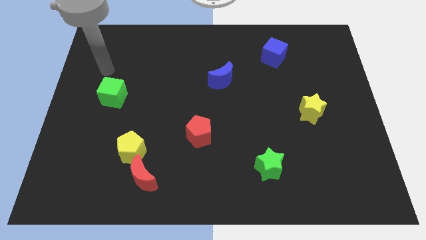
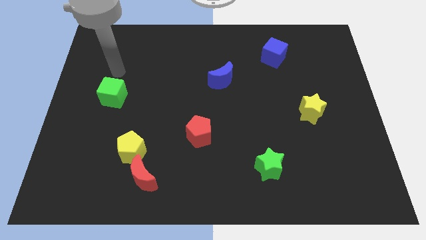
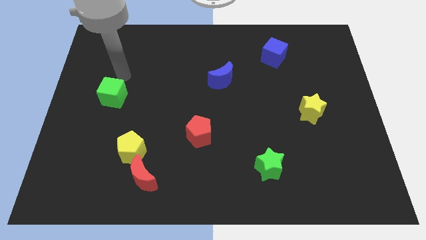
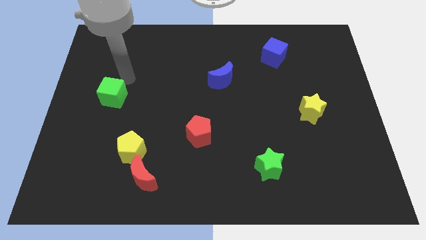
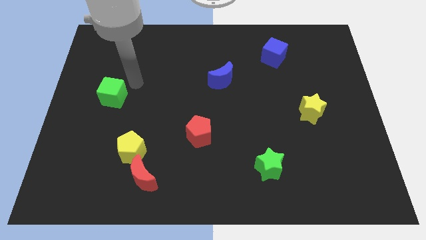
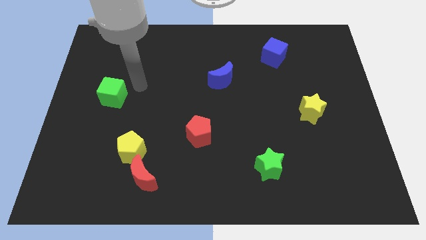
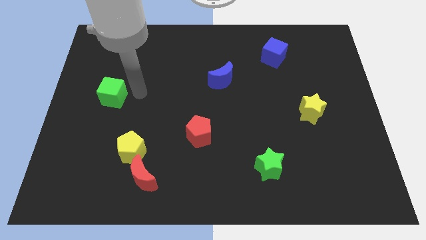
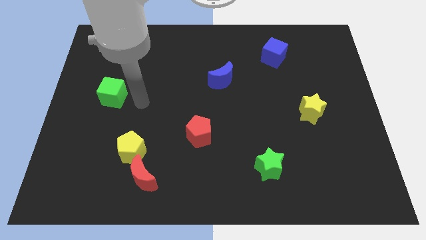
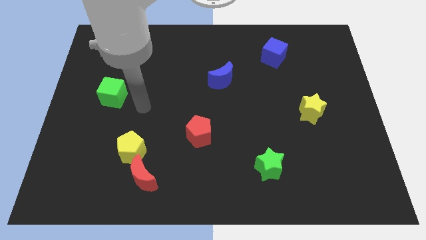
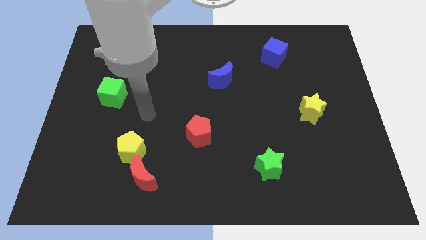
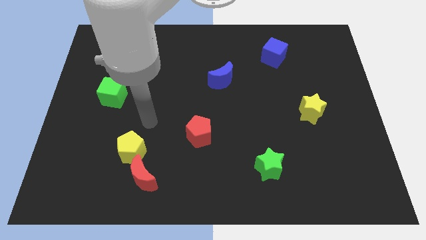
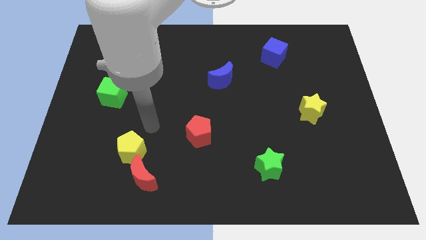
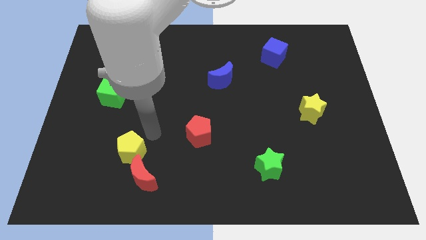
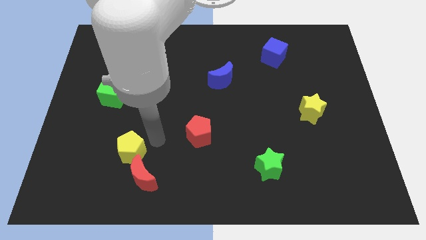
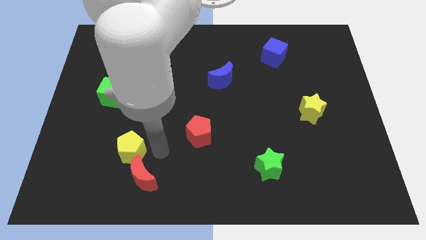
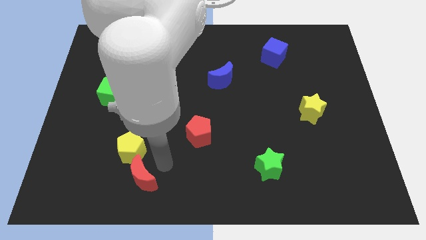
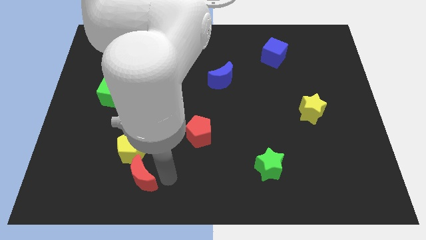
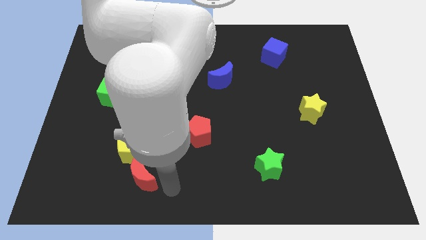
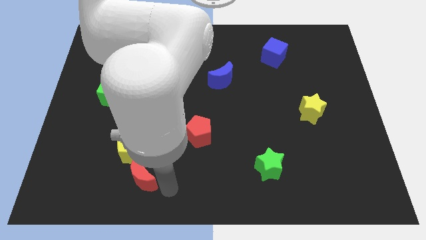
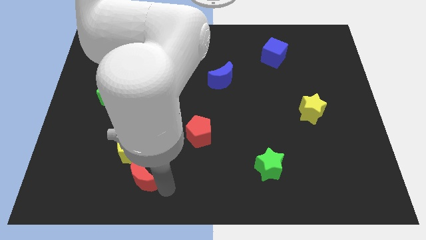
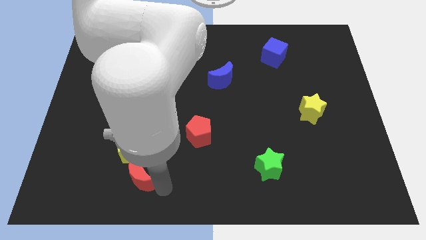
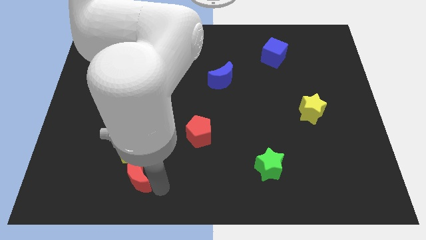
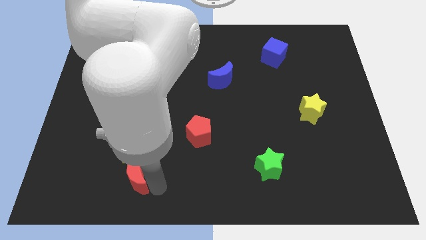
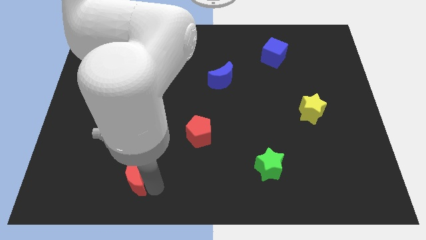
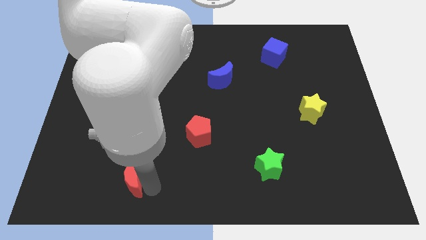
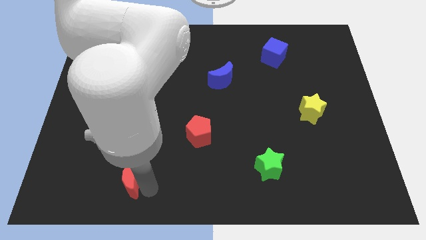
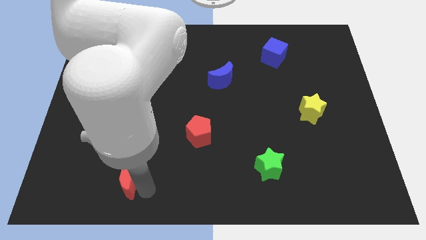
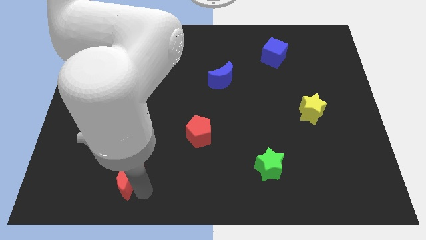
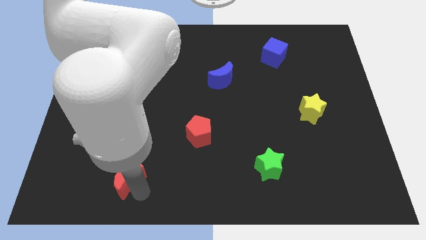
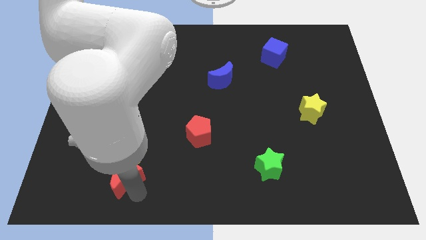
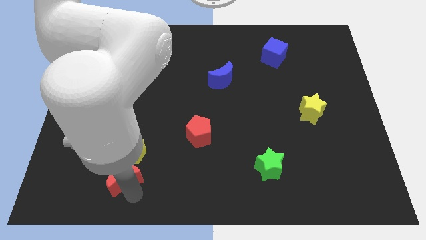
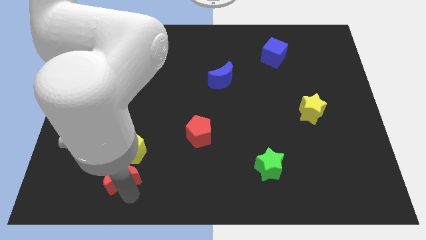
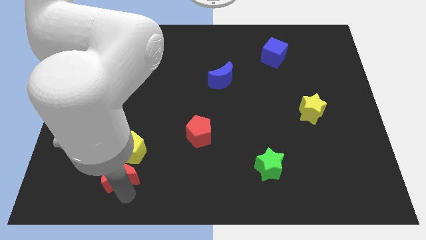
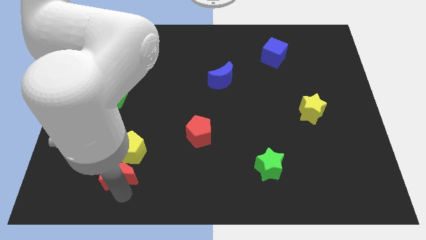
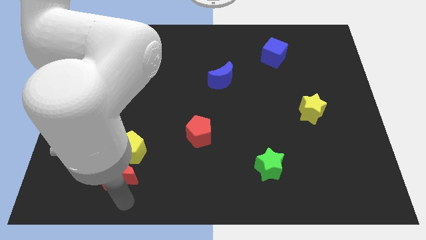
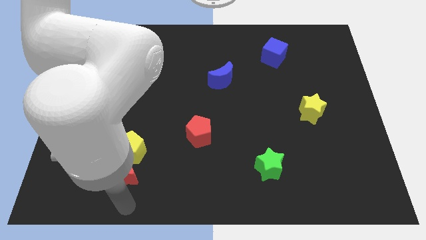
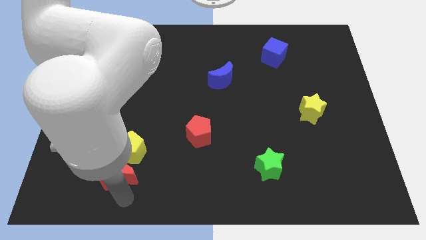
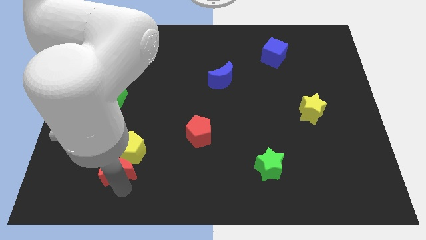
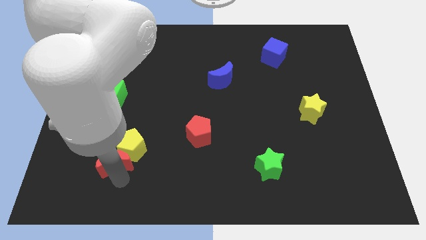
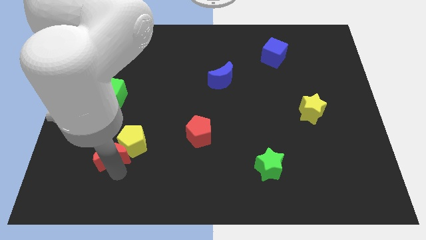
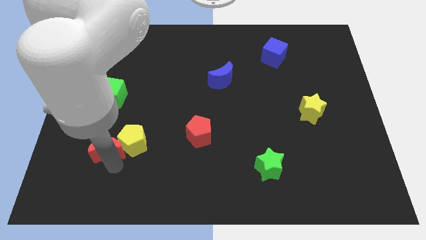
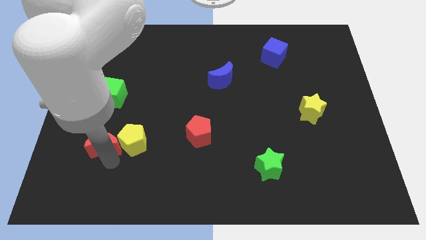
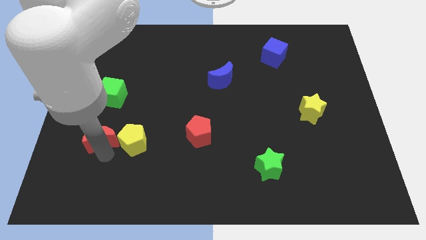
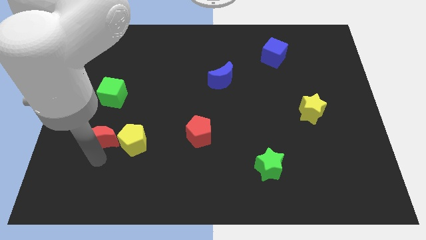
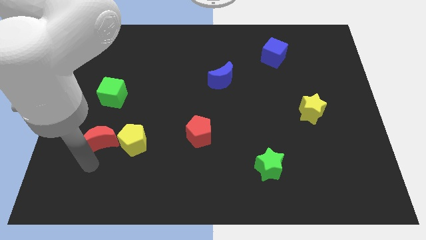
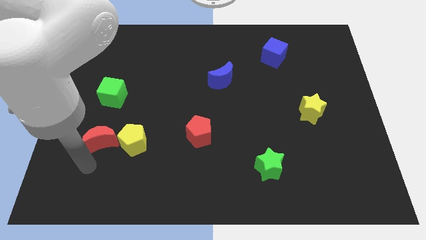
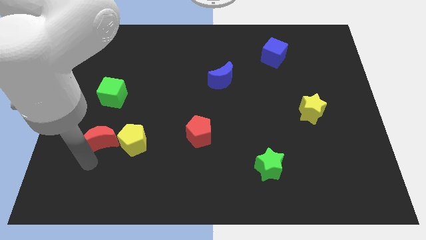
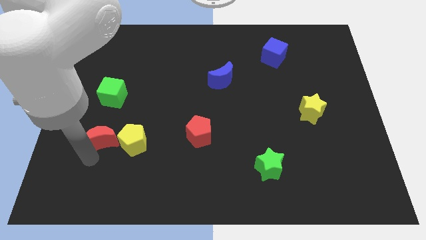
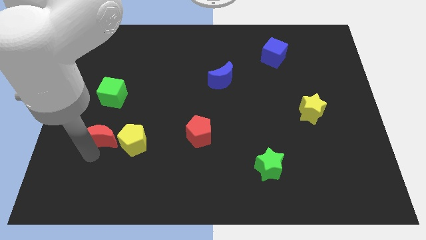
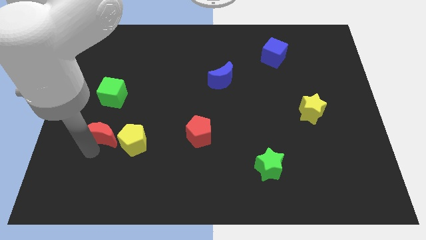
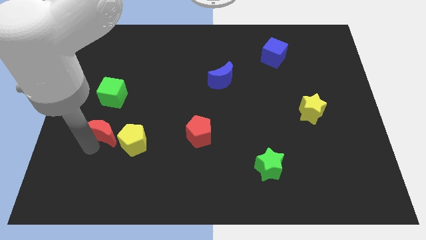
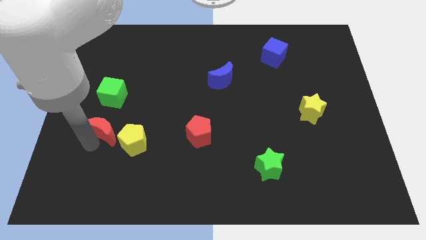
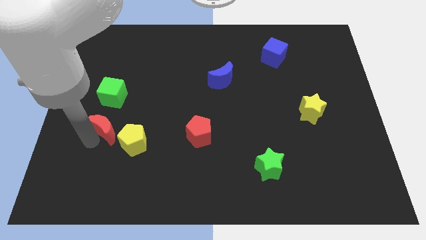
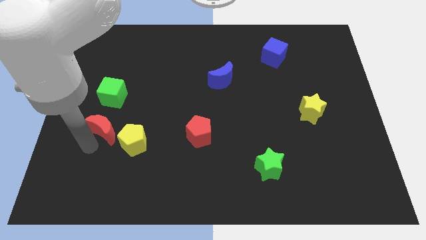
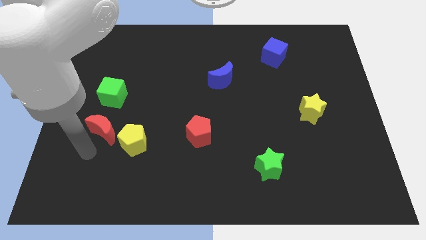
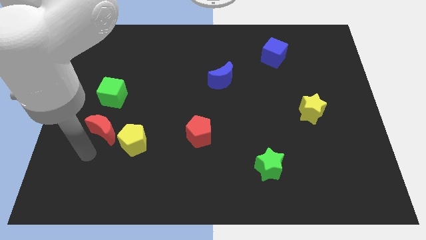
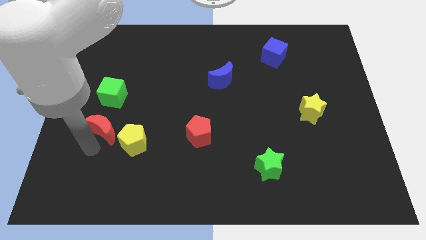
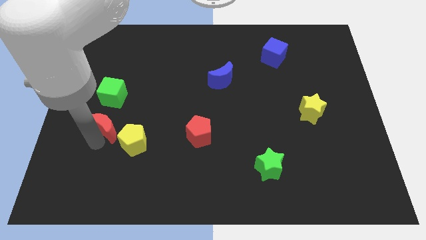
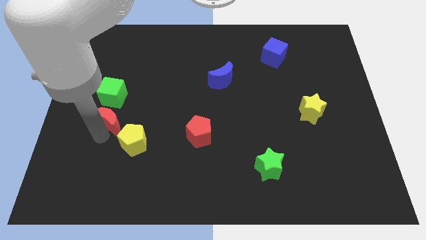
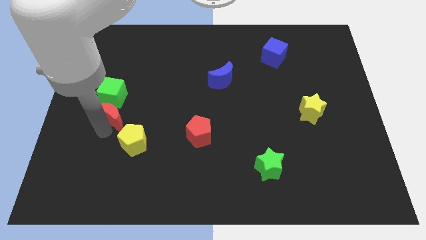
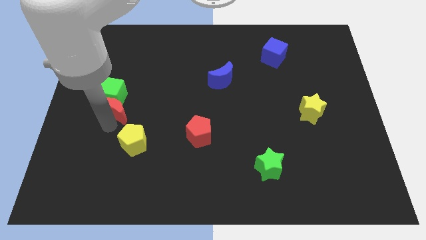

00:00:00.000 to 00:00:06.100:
move the red moon next to the green cube

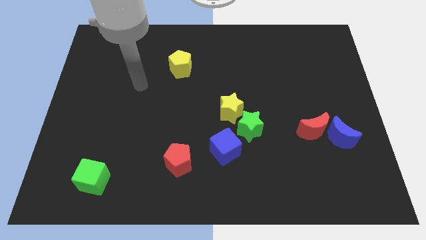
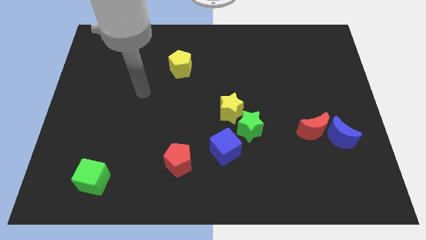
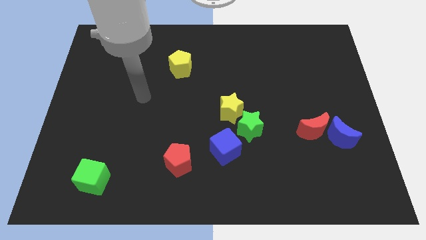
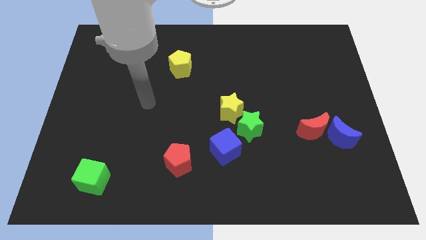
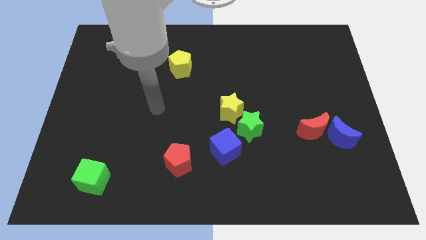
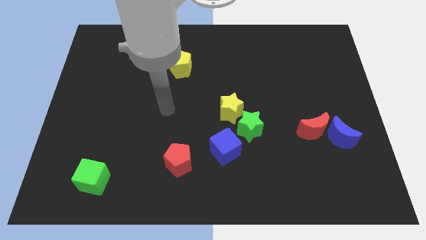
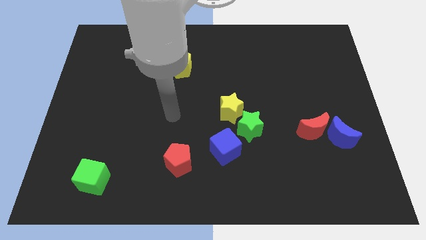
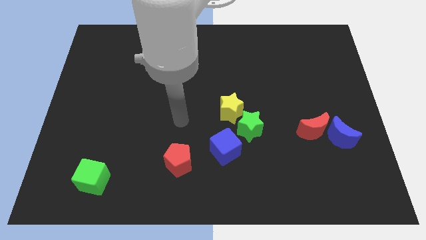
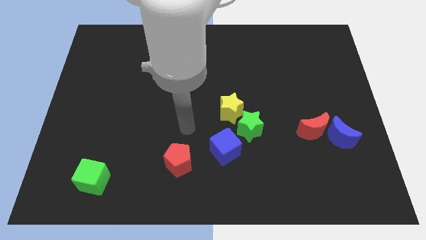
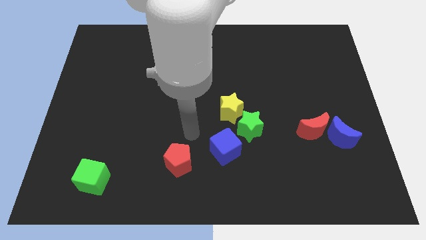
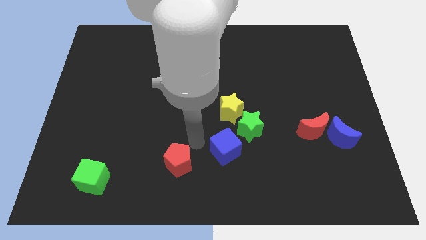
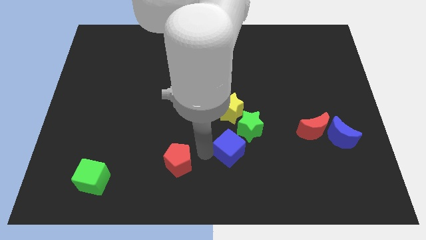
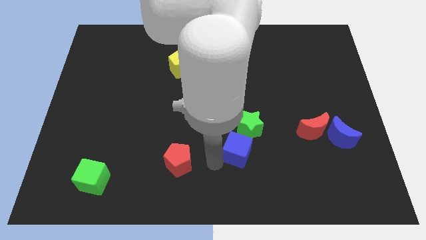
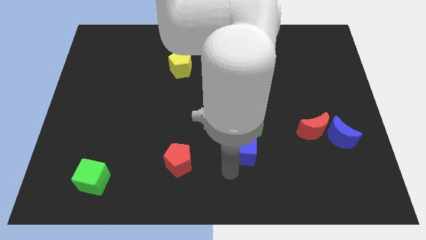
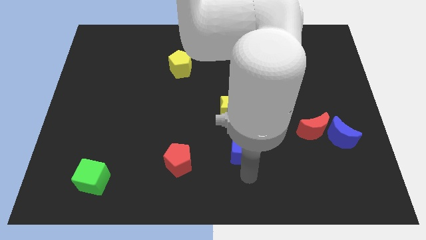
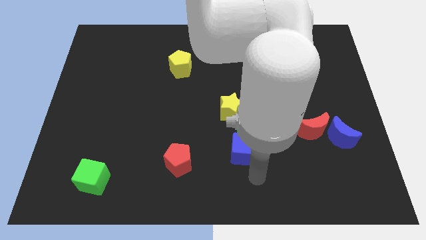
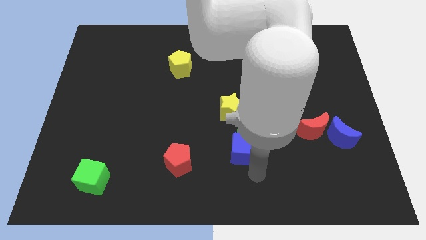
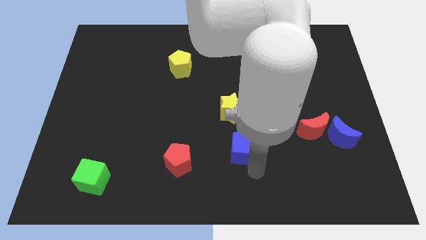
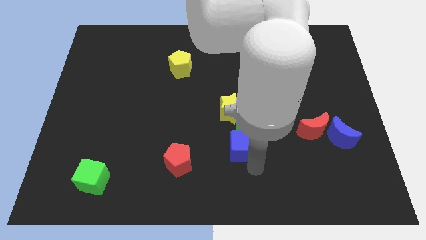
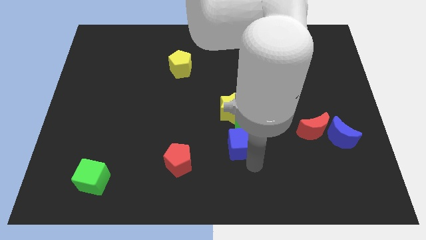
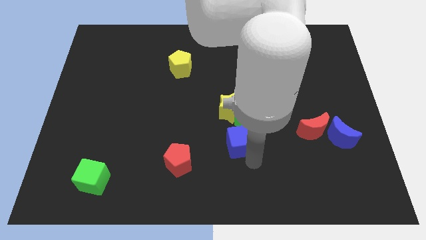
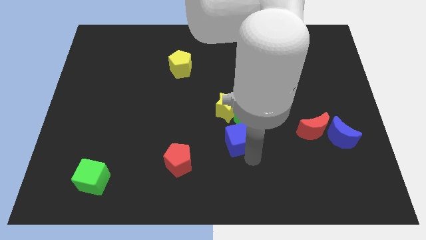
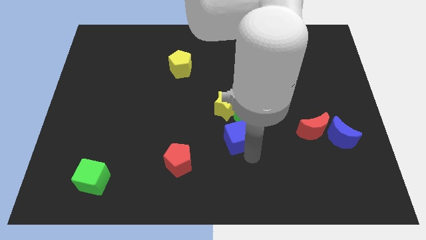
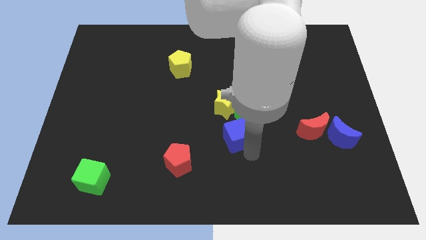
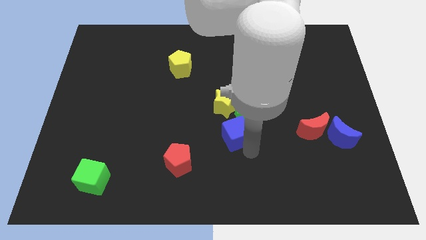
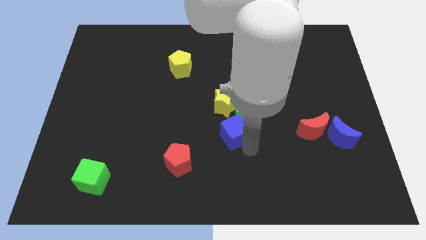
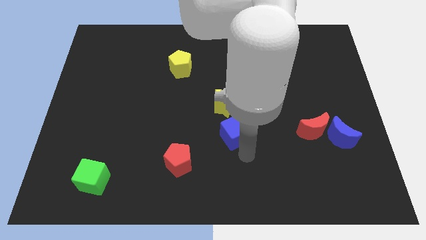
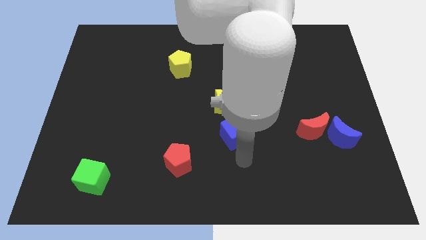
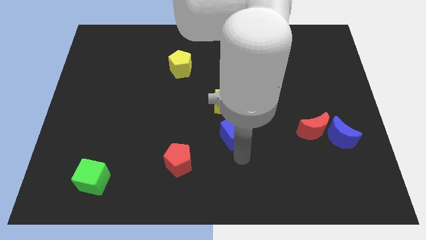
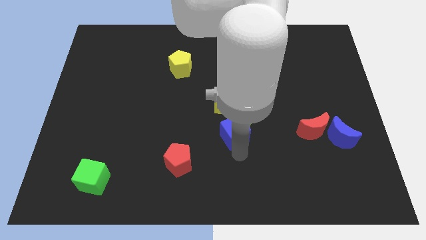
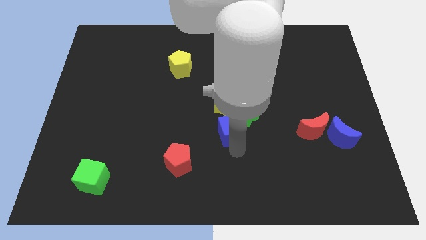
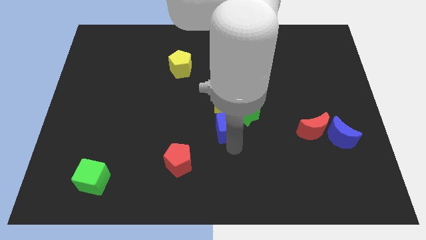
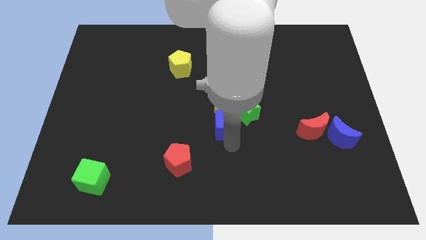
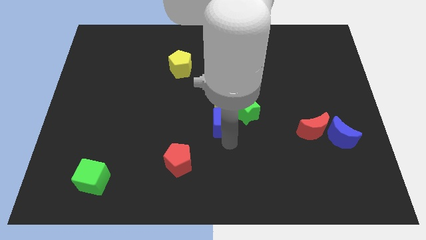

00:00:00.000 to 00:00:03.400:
slide the blue cube next to the yellow star
